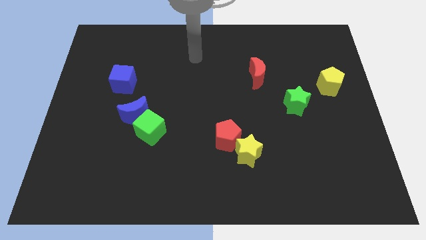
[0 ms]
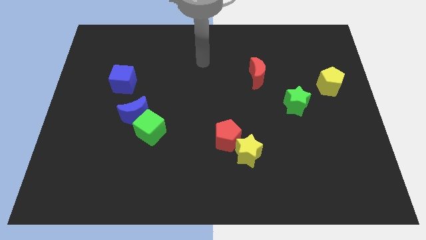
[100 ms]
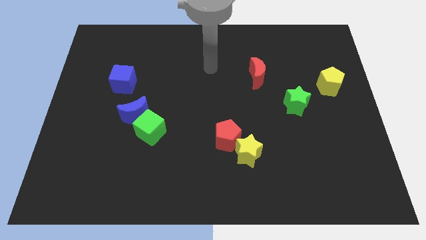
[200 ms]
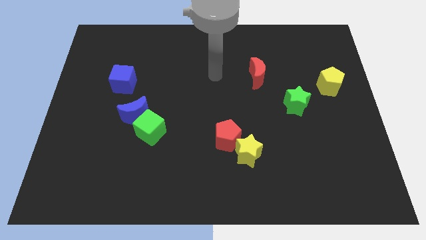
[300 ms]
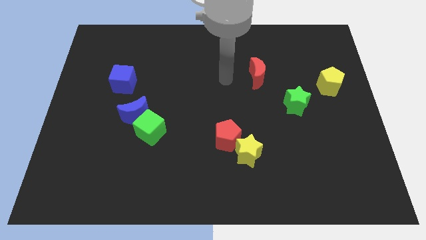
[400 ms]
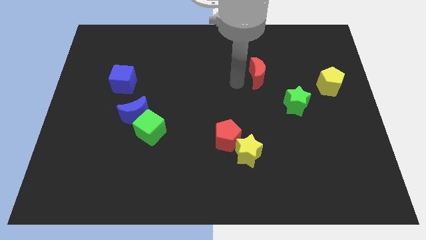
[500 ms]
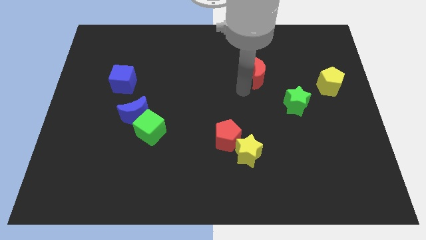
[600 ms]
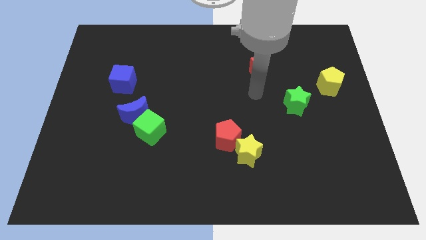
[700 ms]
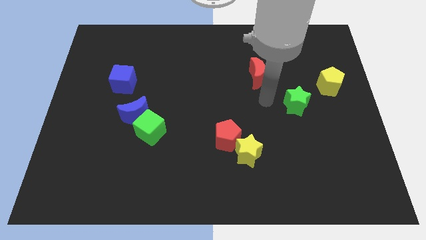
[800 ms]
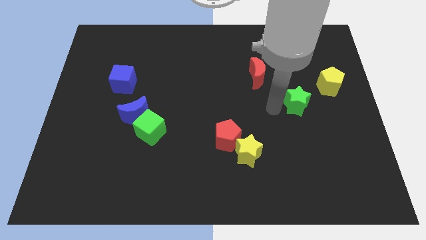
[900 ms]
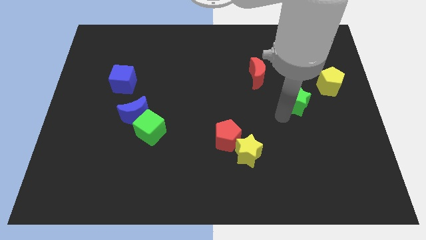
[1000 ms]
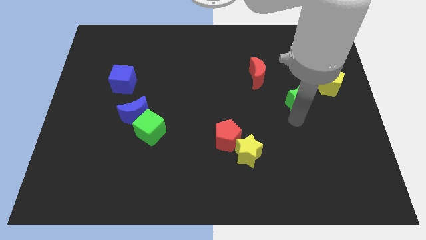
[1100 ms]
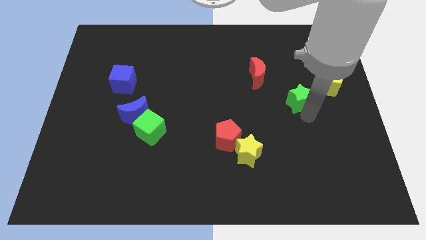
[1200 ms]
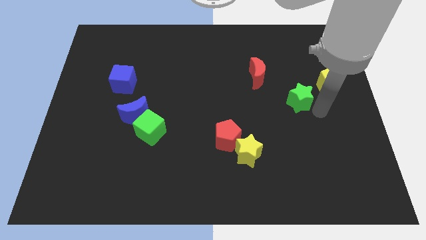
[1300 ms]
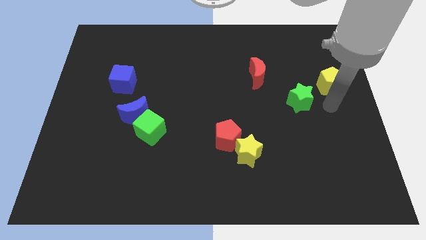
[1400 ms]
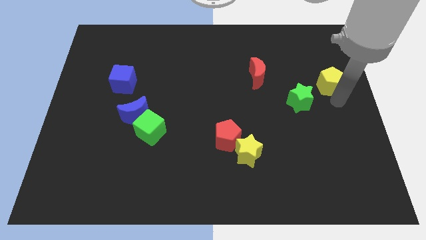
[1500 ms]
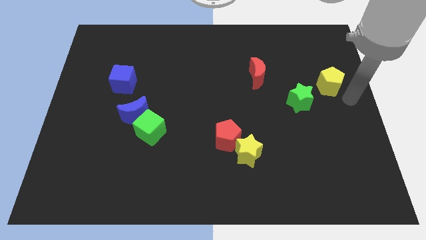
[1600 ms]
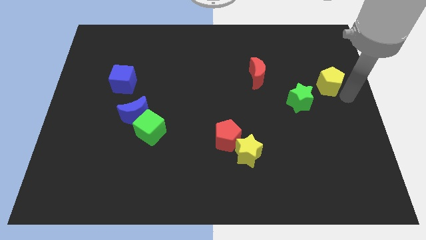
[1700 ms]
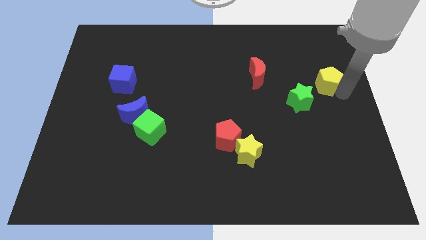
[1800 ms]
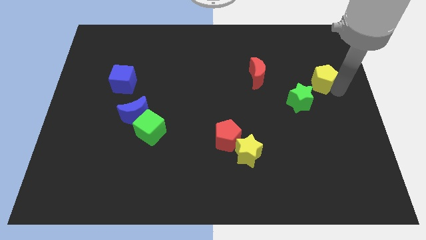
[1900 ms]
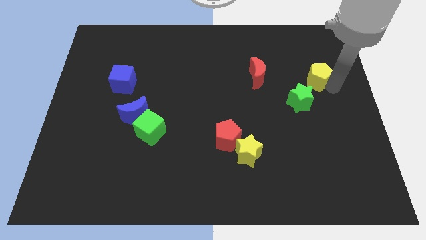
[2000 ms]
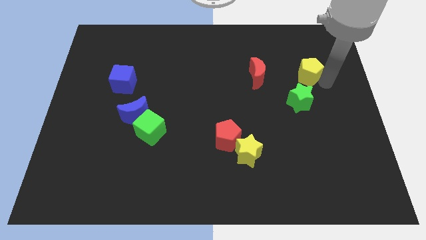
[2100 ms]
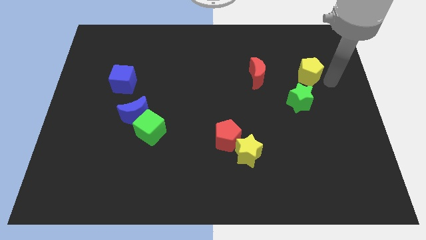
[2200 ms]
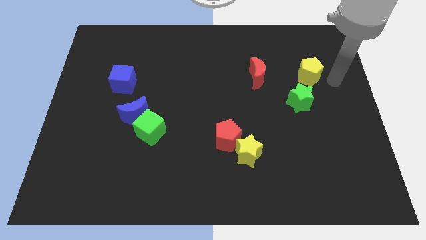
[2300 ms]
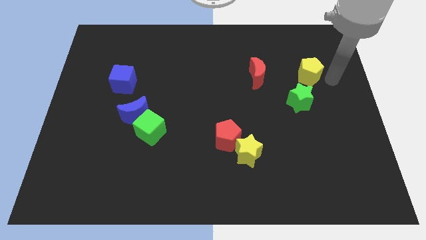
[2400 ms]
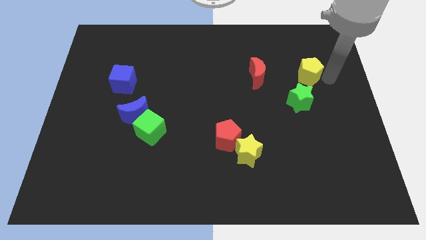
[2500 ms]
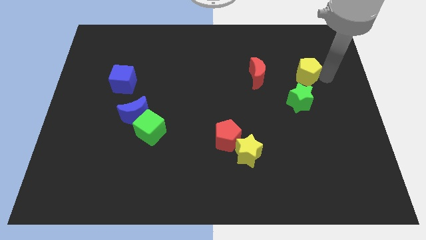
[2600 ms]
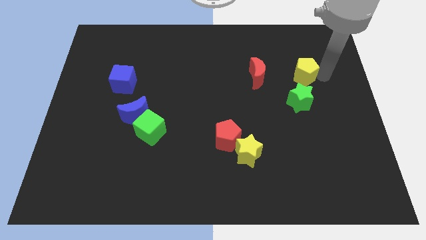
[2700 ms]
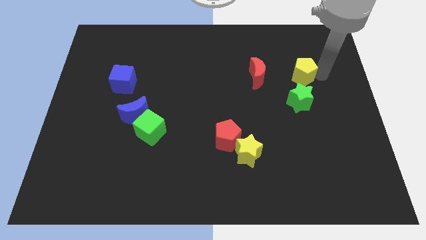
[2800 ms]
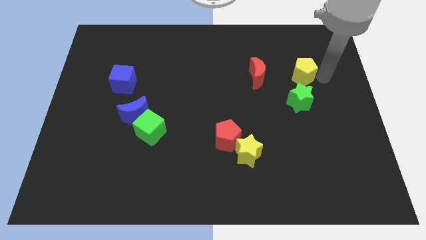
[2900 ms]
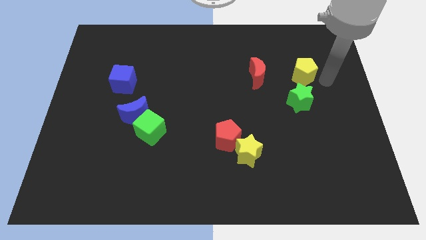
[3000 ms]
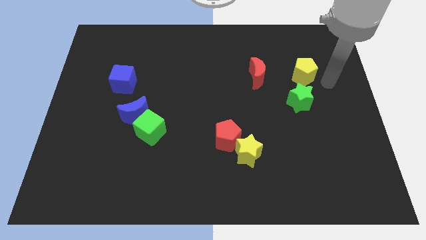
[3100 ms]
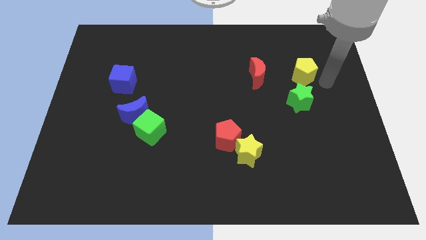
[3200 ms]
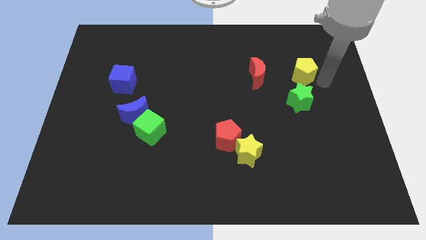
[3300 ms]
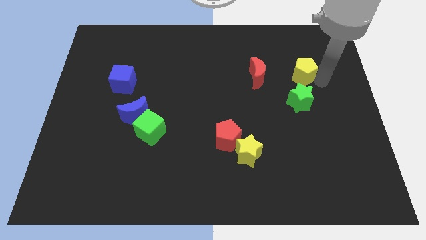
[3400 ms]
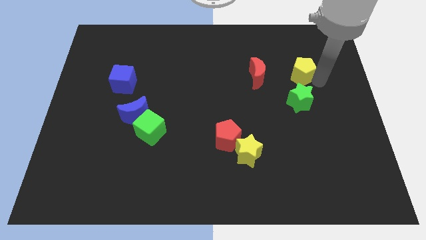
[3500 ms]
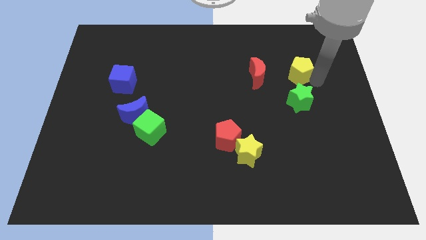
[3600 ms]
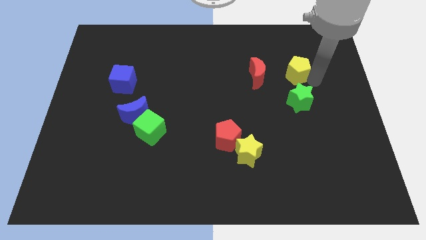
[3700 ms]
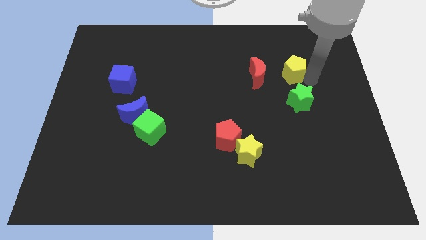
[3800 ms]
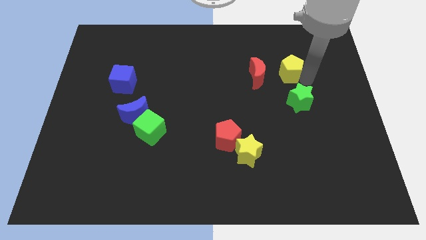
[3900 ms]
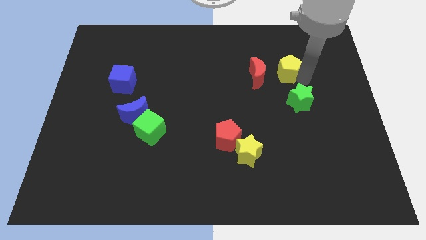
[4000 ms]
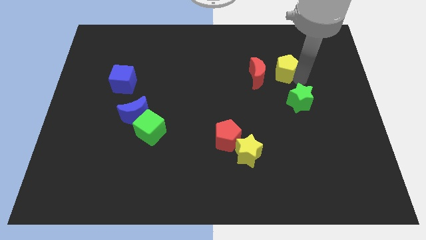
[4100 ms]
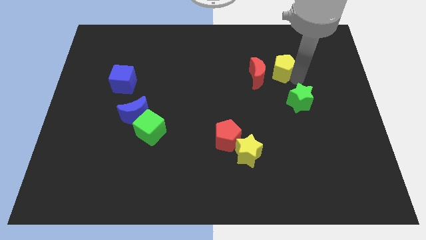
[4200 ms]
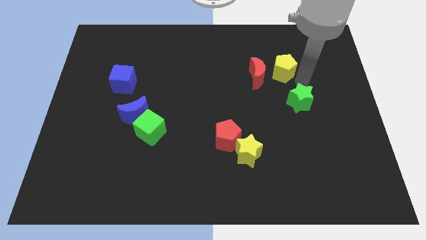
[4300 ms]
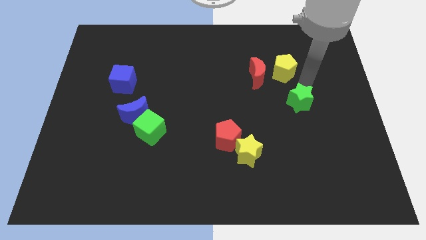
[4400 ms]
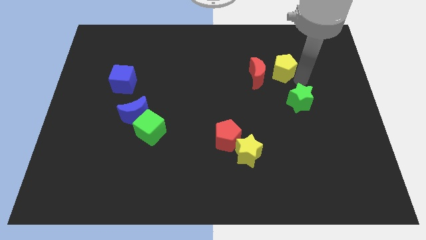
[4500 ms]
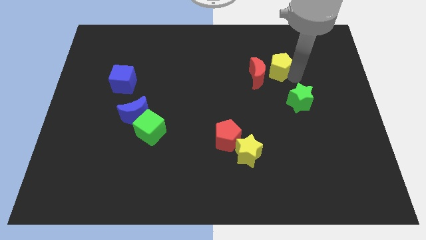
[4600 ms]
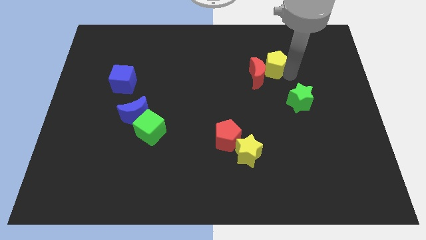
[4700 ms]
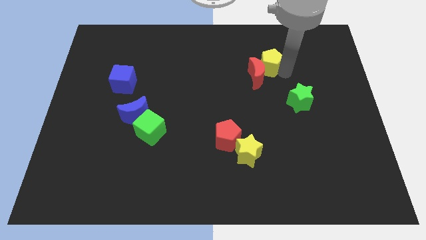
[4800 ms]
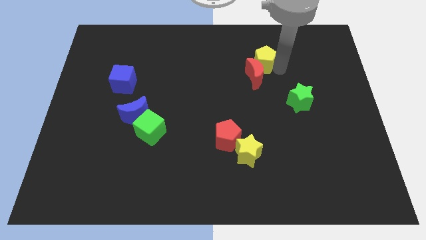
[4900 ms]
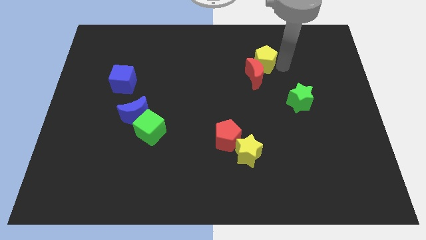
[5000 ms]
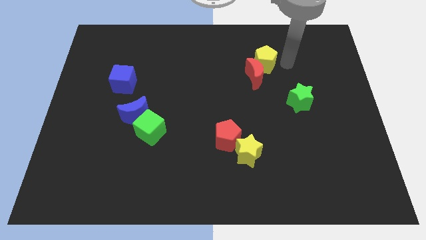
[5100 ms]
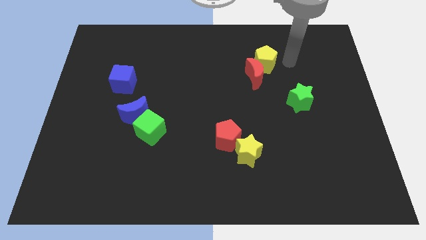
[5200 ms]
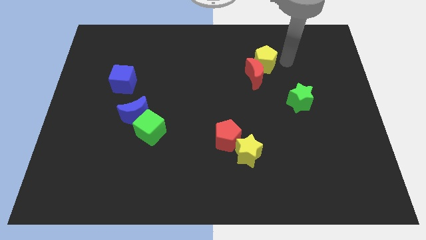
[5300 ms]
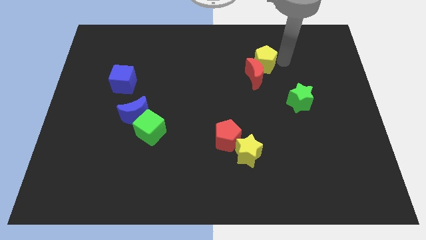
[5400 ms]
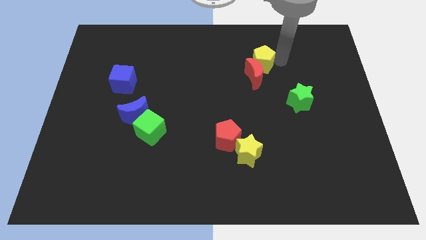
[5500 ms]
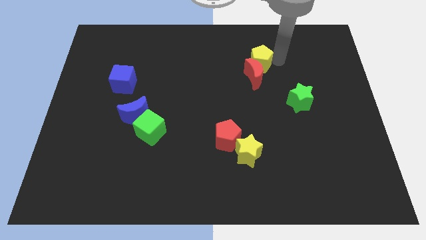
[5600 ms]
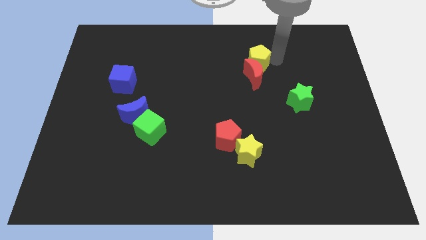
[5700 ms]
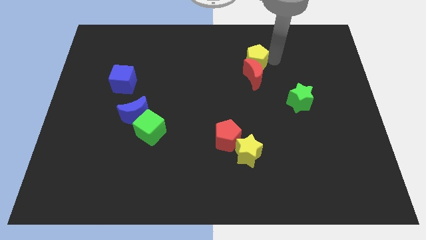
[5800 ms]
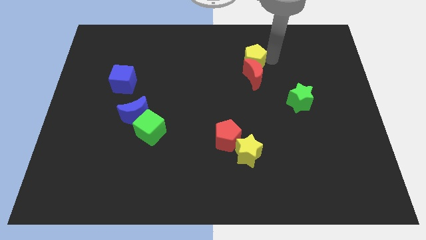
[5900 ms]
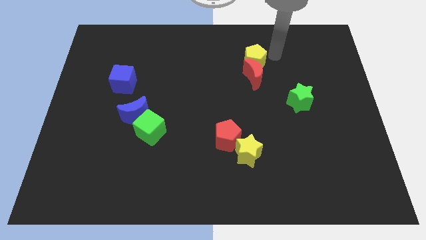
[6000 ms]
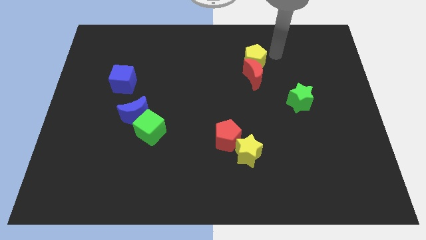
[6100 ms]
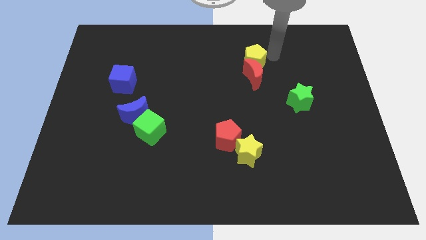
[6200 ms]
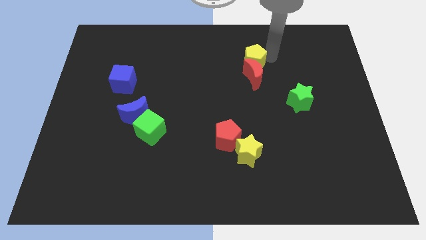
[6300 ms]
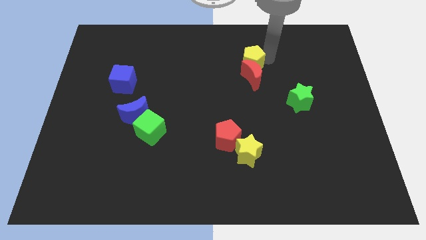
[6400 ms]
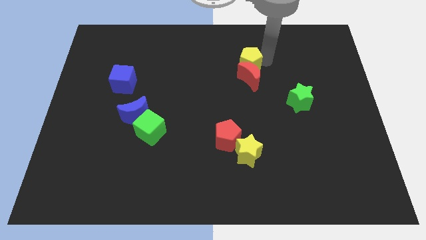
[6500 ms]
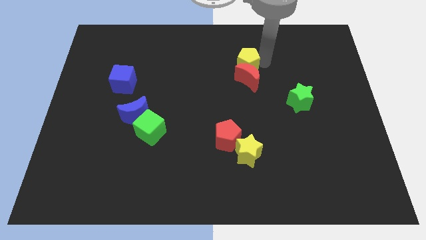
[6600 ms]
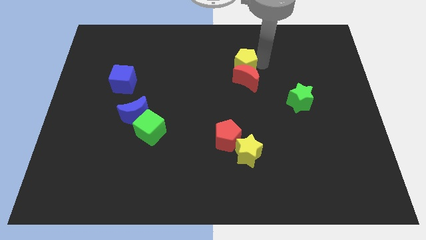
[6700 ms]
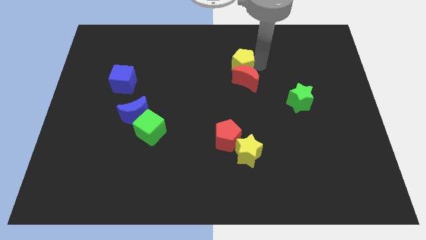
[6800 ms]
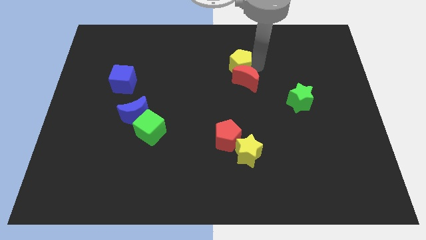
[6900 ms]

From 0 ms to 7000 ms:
move the yellow pentagon left

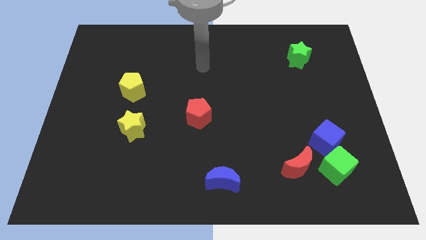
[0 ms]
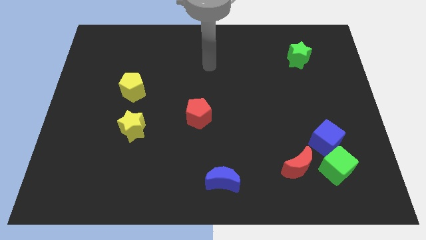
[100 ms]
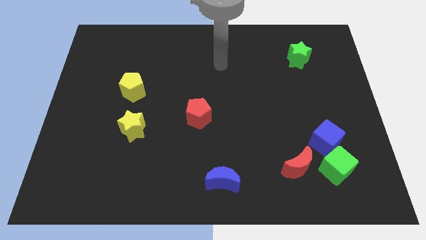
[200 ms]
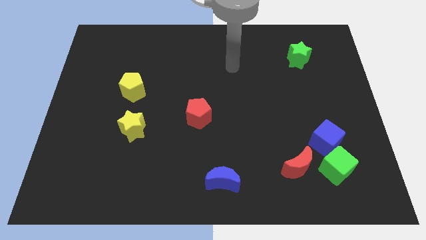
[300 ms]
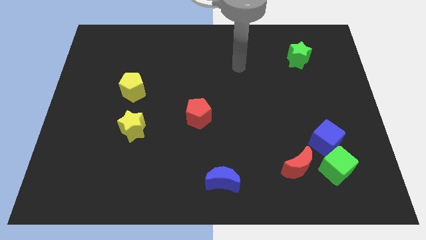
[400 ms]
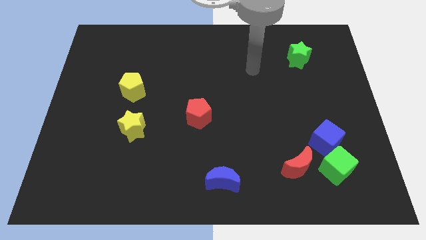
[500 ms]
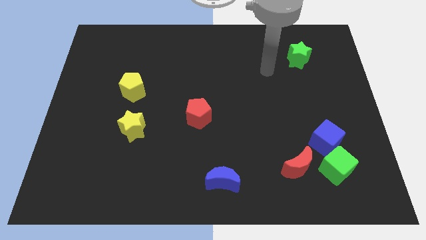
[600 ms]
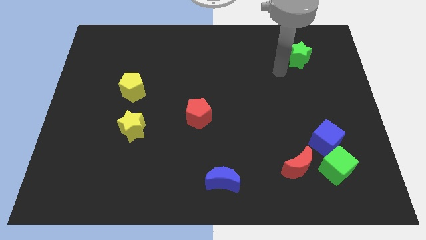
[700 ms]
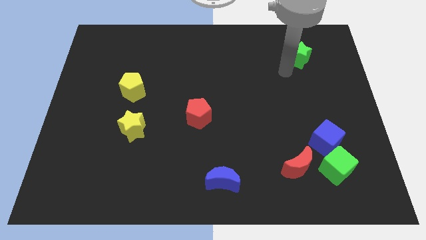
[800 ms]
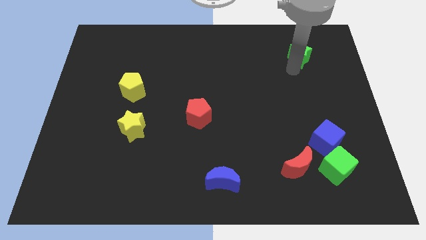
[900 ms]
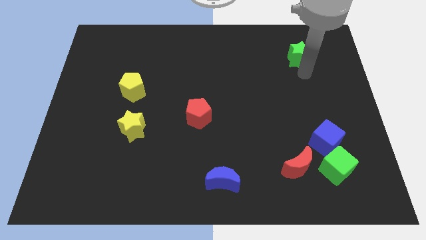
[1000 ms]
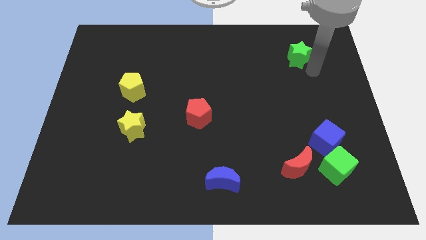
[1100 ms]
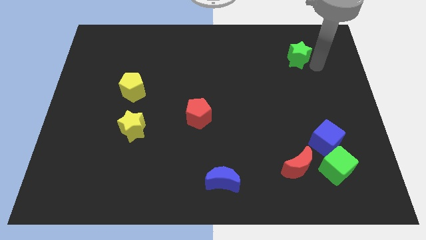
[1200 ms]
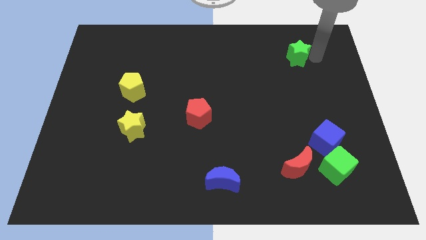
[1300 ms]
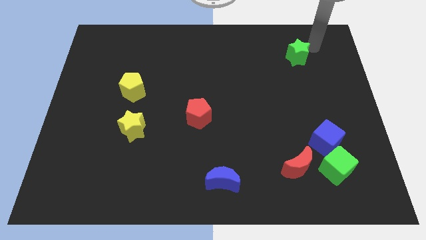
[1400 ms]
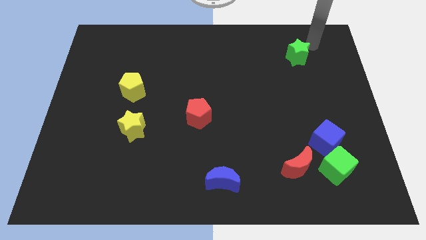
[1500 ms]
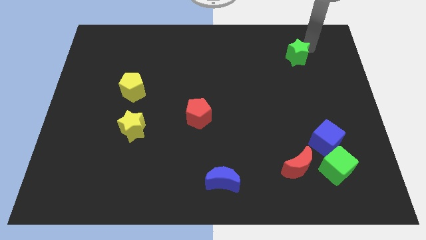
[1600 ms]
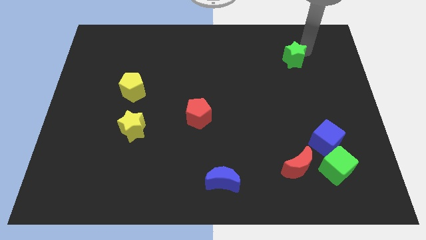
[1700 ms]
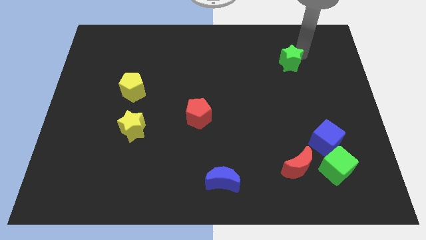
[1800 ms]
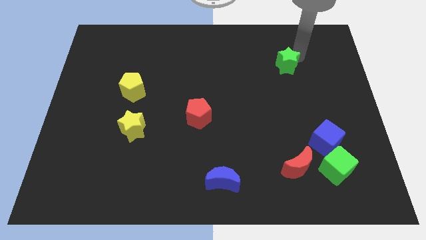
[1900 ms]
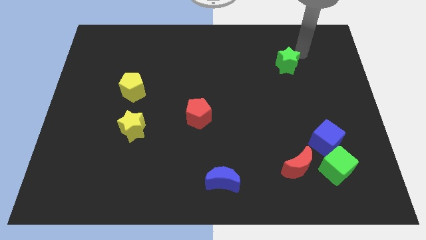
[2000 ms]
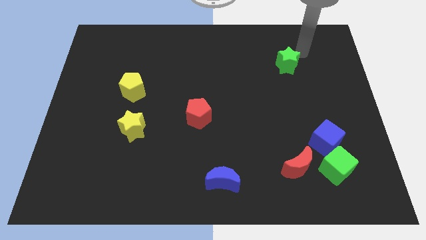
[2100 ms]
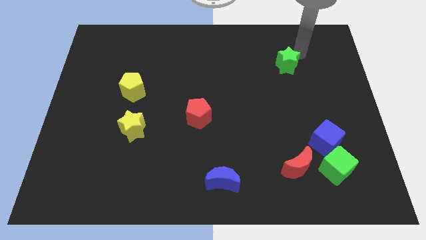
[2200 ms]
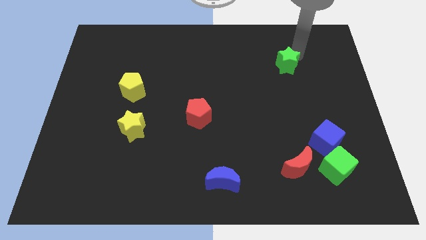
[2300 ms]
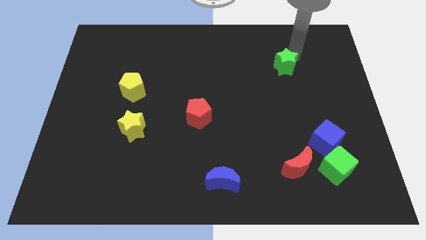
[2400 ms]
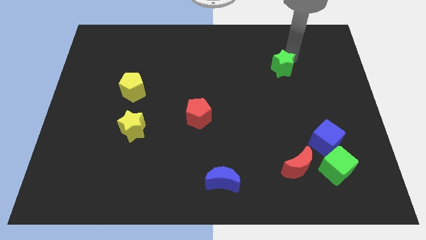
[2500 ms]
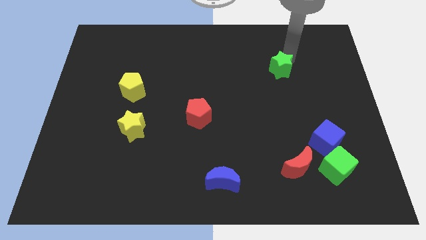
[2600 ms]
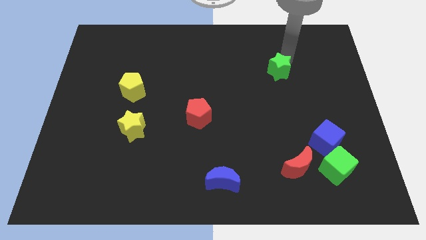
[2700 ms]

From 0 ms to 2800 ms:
push the green star diagonally down and to the left slightly
